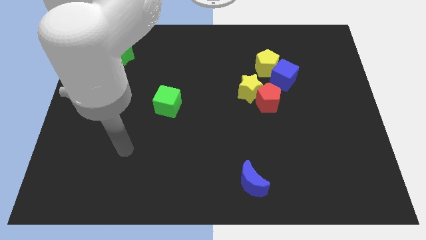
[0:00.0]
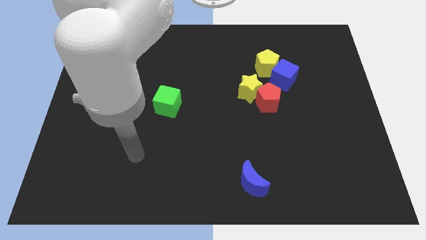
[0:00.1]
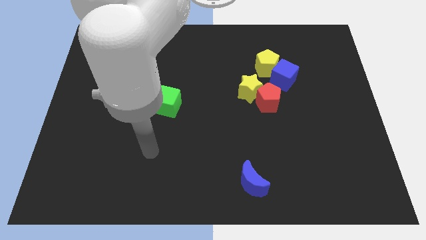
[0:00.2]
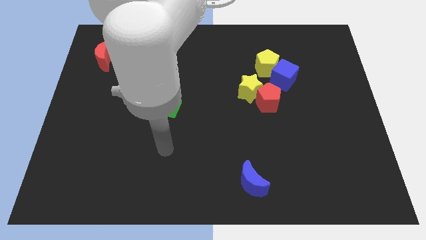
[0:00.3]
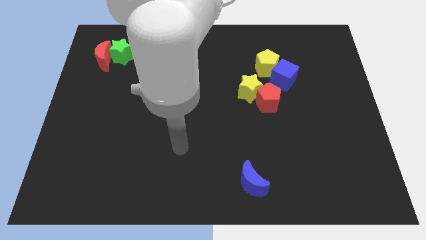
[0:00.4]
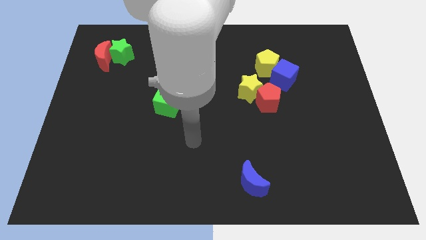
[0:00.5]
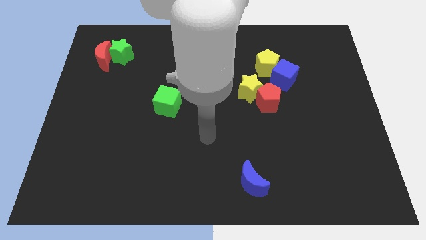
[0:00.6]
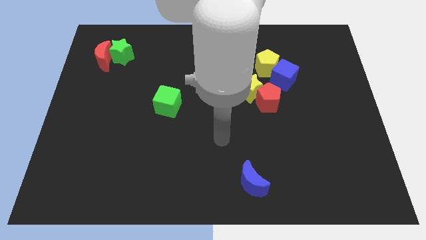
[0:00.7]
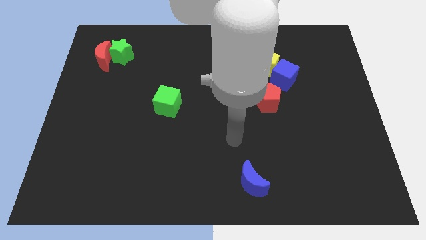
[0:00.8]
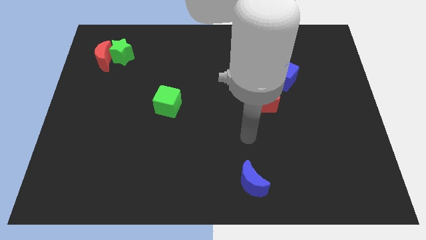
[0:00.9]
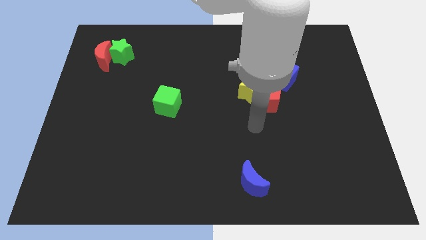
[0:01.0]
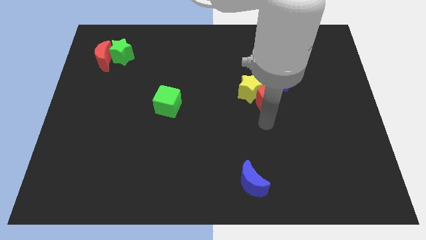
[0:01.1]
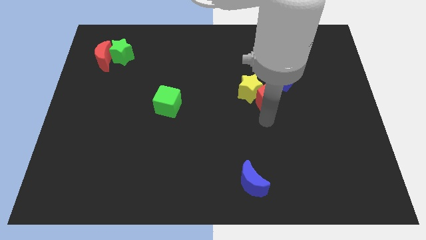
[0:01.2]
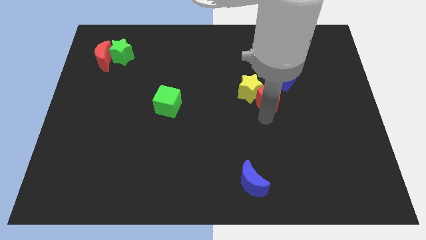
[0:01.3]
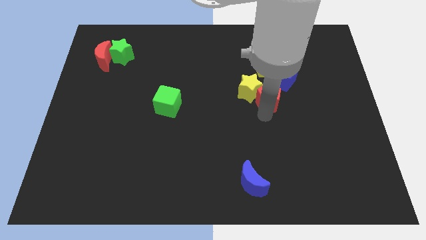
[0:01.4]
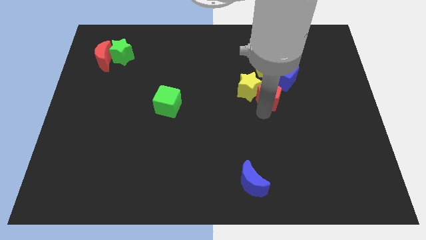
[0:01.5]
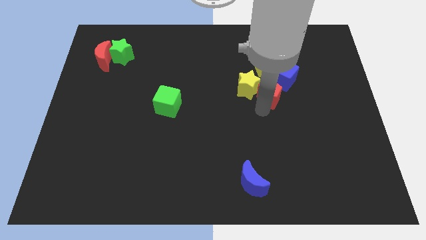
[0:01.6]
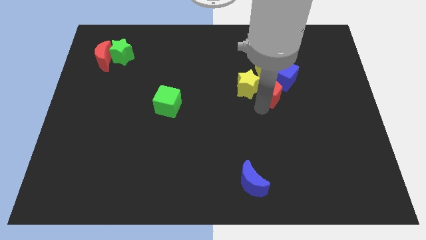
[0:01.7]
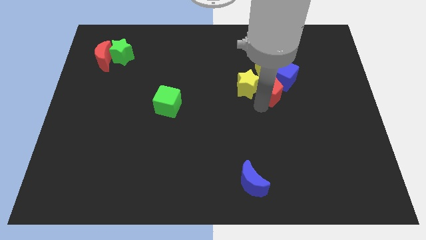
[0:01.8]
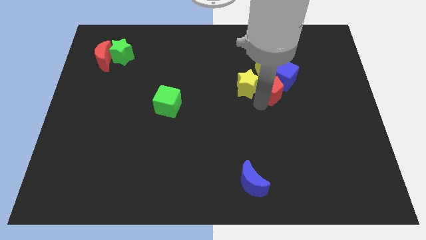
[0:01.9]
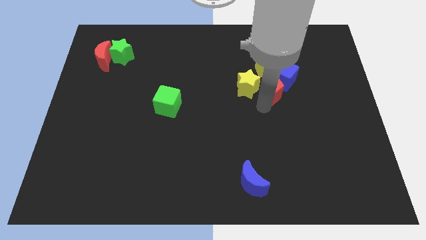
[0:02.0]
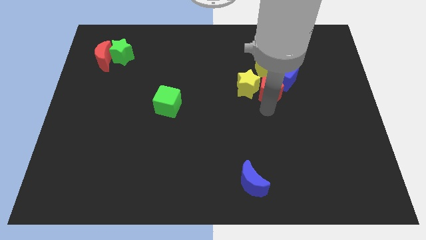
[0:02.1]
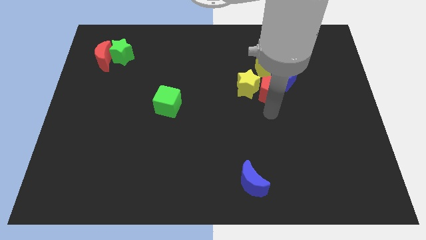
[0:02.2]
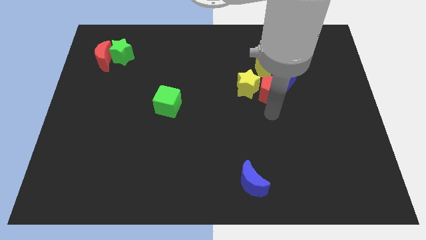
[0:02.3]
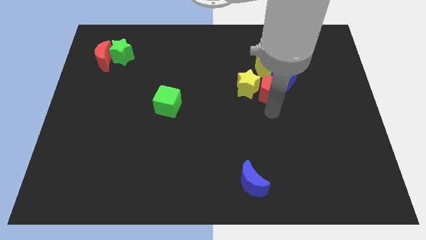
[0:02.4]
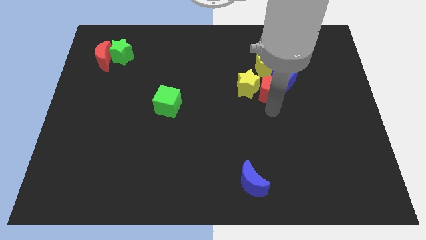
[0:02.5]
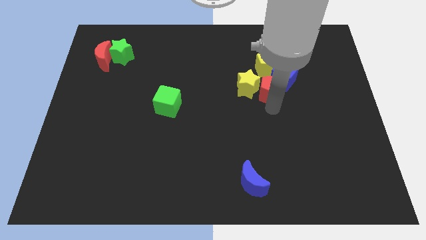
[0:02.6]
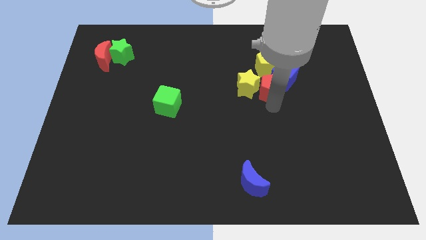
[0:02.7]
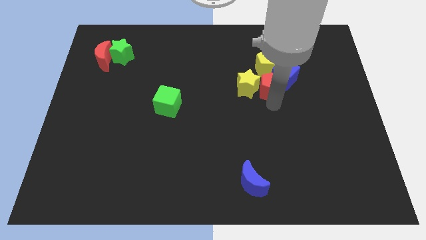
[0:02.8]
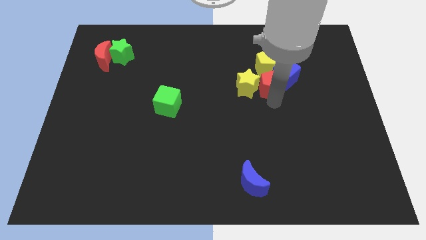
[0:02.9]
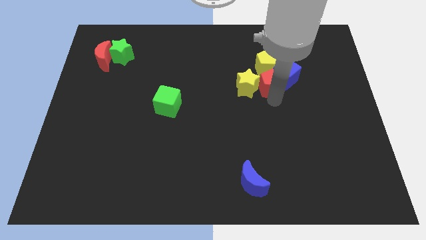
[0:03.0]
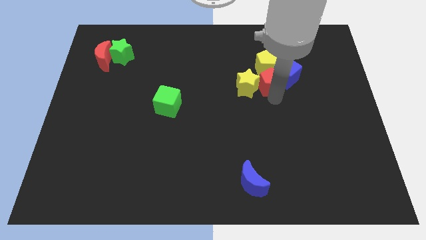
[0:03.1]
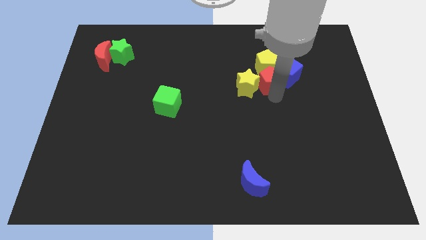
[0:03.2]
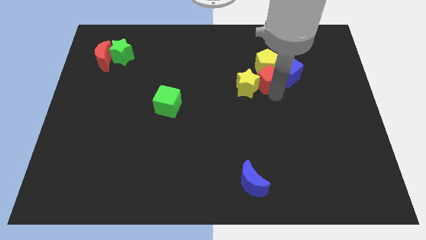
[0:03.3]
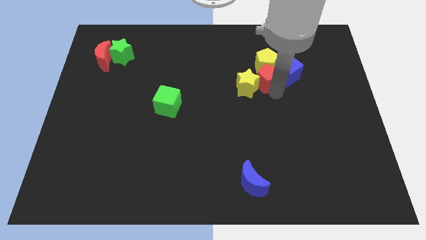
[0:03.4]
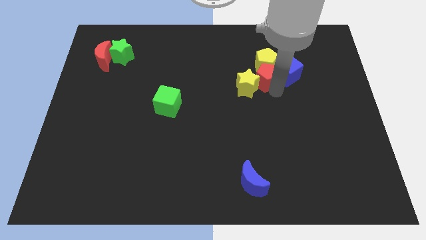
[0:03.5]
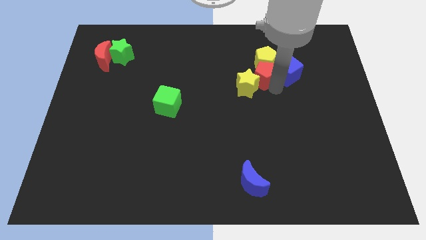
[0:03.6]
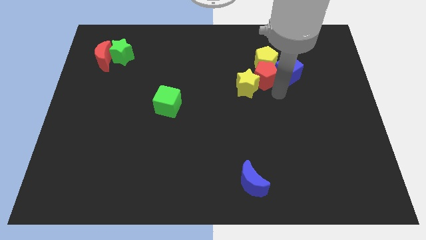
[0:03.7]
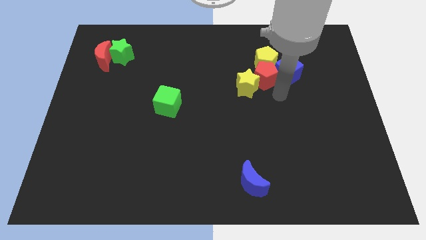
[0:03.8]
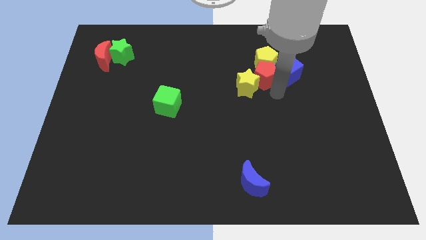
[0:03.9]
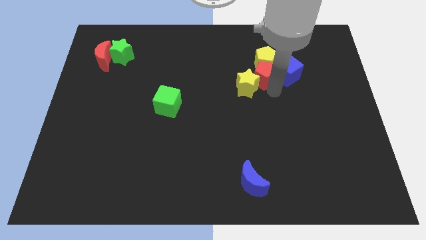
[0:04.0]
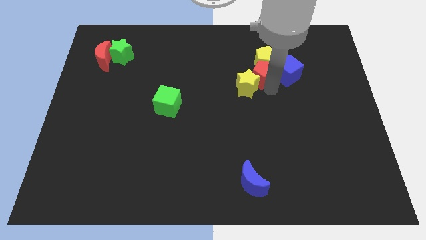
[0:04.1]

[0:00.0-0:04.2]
slide the red pentagon to the top side of the yellow star

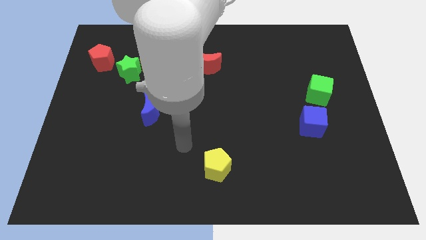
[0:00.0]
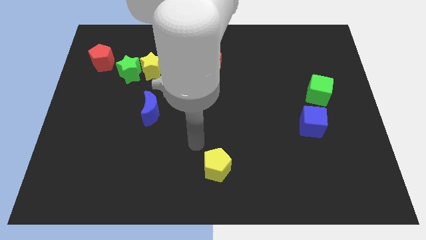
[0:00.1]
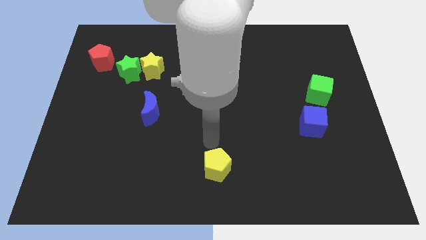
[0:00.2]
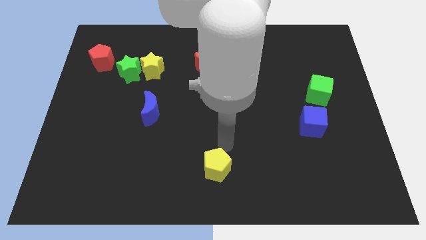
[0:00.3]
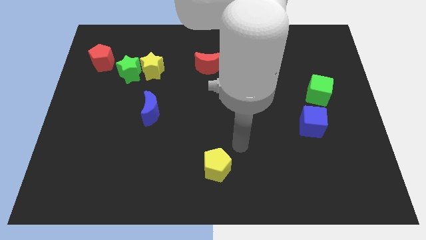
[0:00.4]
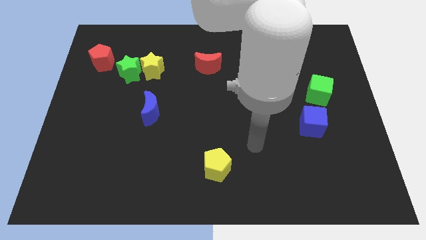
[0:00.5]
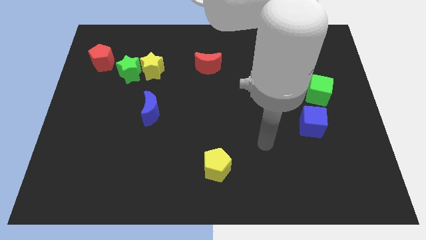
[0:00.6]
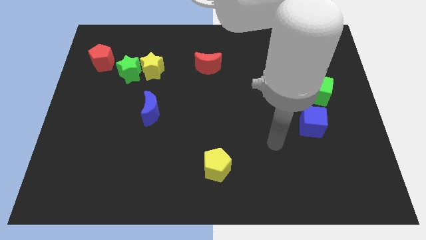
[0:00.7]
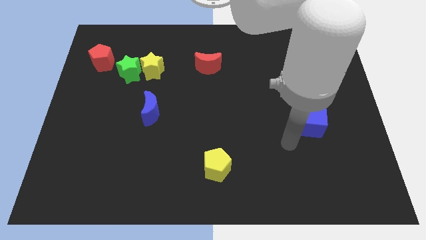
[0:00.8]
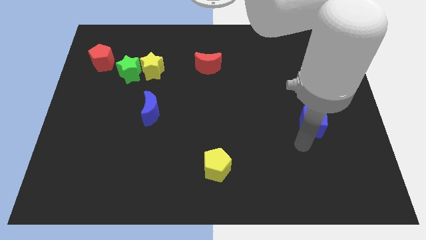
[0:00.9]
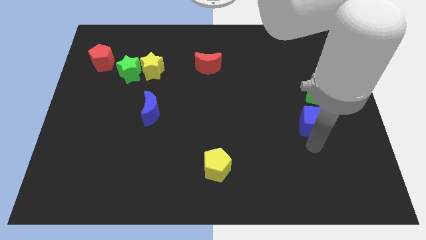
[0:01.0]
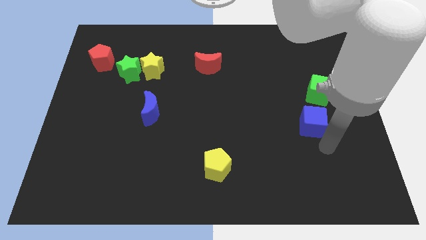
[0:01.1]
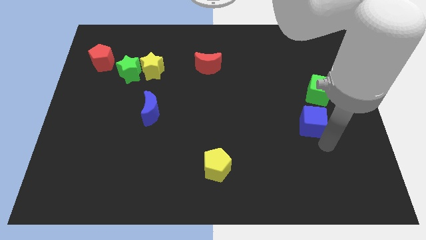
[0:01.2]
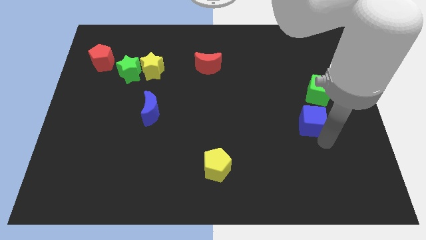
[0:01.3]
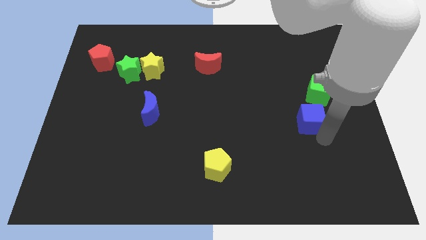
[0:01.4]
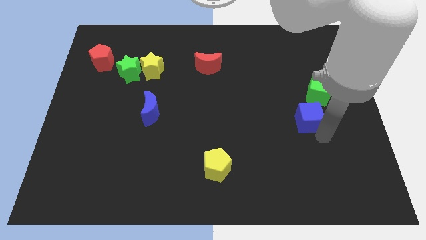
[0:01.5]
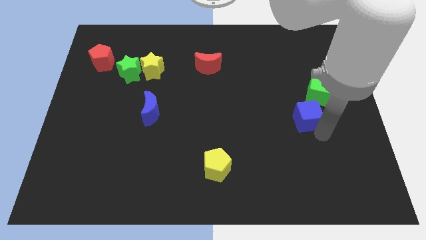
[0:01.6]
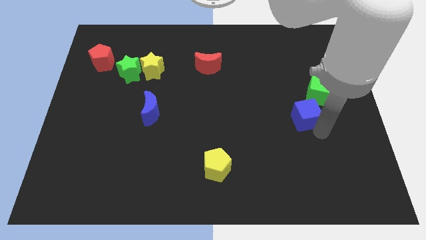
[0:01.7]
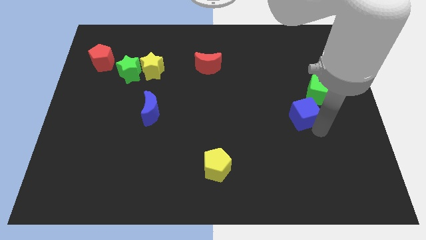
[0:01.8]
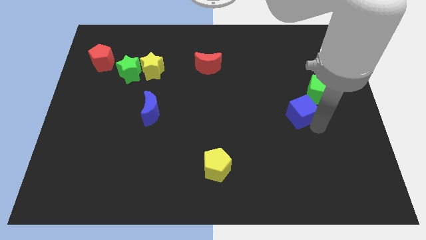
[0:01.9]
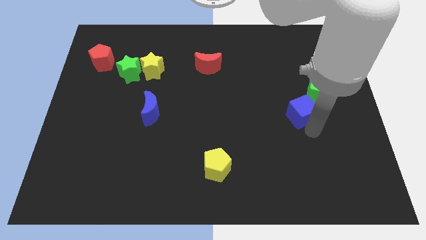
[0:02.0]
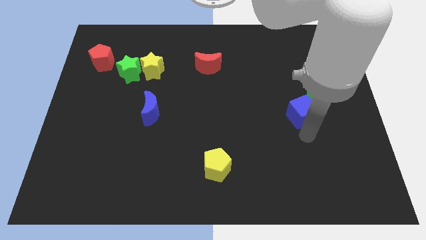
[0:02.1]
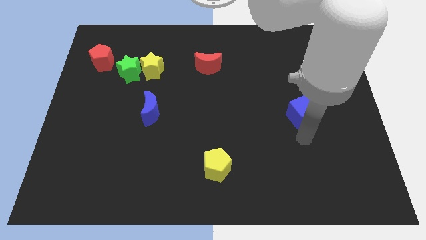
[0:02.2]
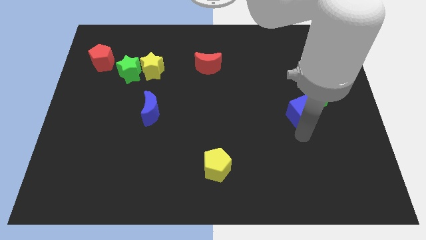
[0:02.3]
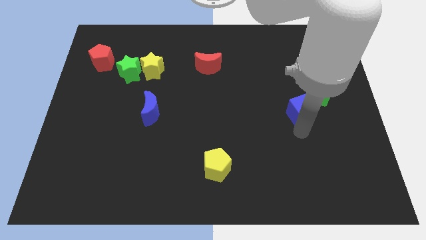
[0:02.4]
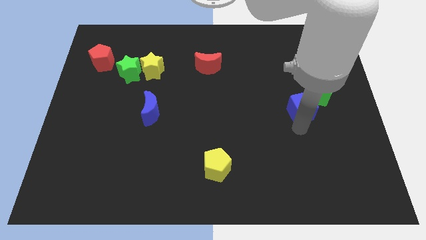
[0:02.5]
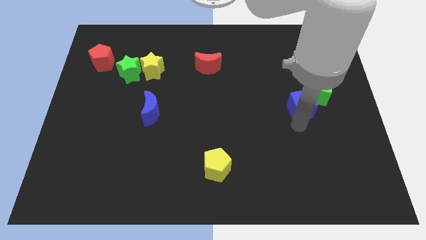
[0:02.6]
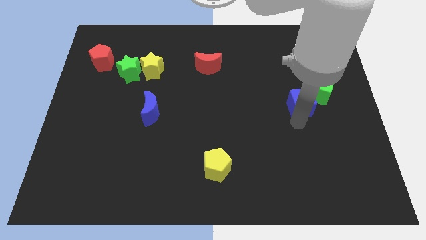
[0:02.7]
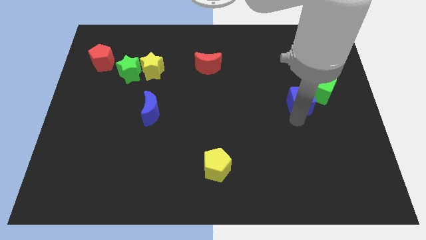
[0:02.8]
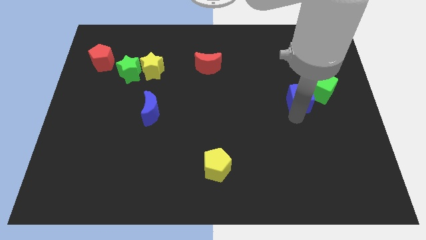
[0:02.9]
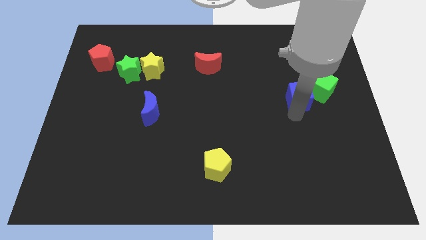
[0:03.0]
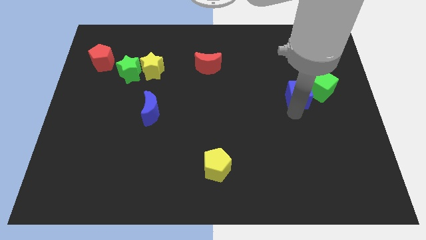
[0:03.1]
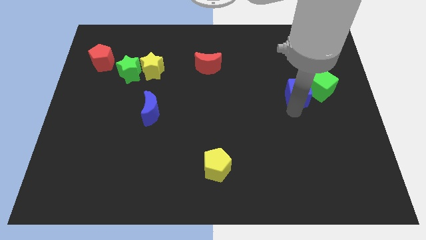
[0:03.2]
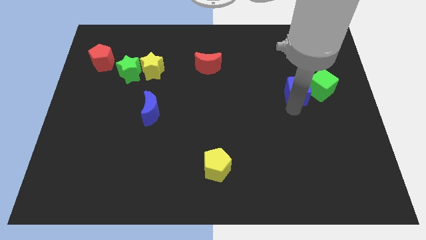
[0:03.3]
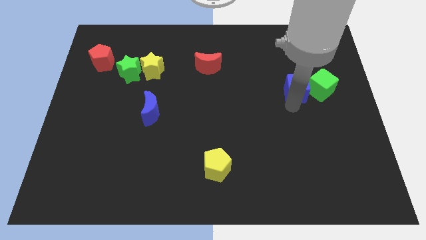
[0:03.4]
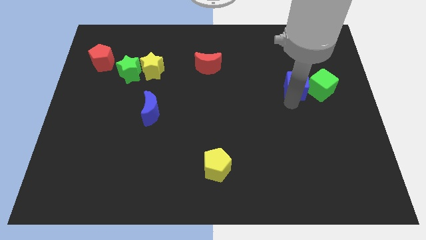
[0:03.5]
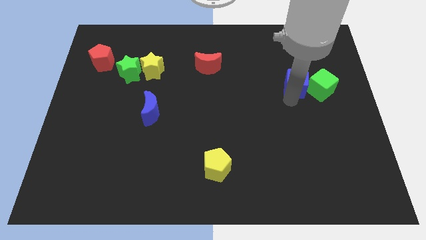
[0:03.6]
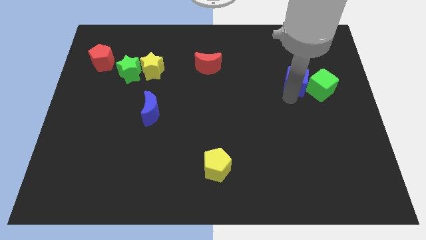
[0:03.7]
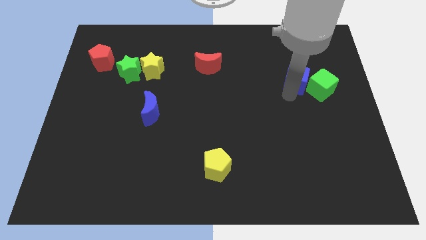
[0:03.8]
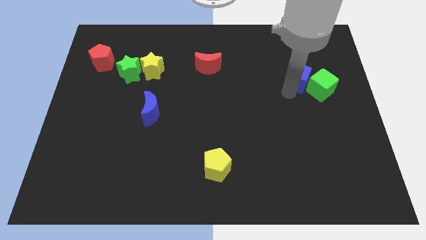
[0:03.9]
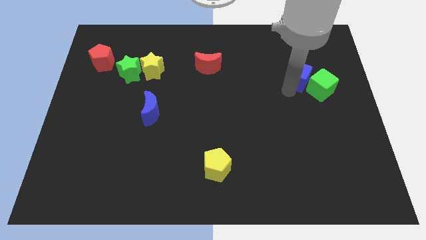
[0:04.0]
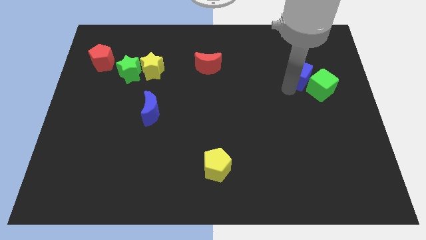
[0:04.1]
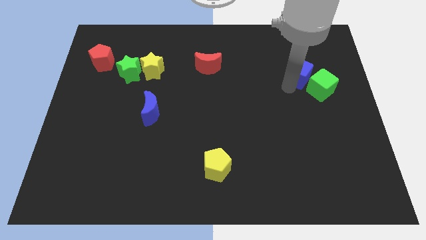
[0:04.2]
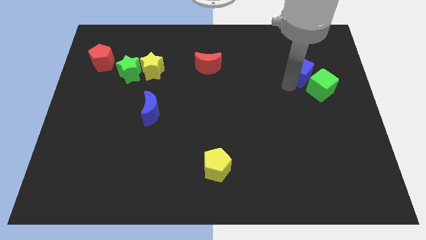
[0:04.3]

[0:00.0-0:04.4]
put the blue cube to the top side of the green cube
